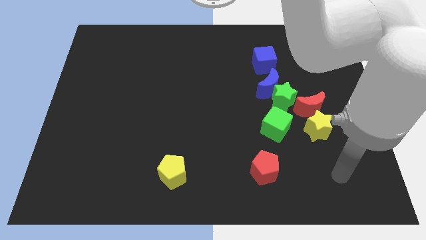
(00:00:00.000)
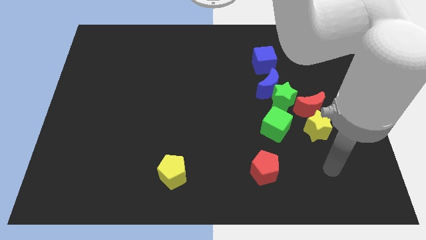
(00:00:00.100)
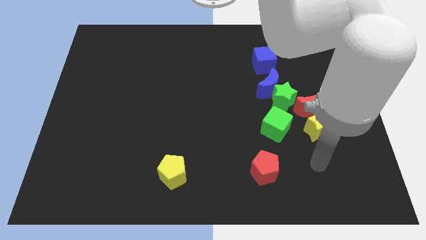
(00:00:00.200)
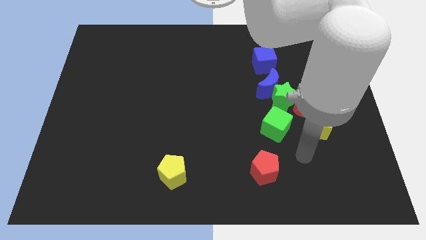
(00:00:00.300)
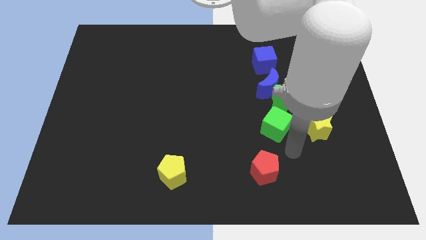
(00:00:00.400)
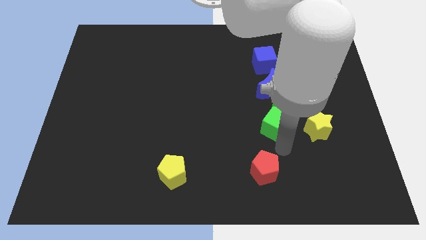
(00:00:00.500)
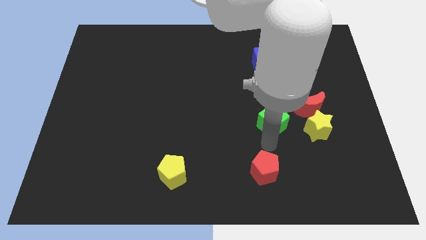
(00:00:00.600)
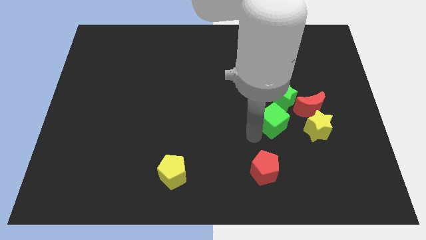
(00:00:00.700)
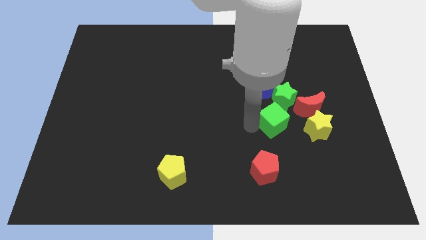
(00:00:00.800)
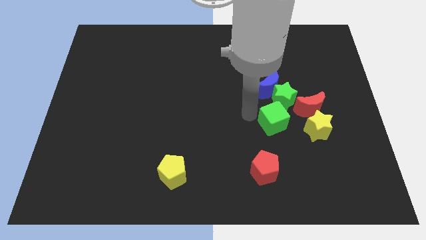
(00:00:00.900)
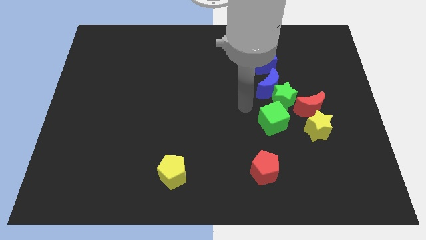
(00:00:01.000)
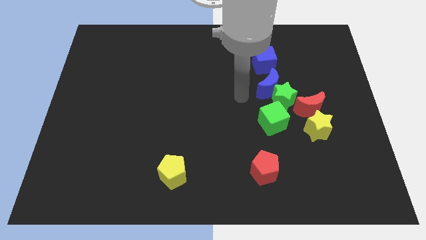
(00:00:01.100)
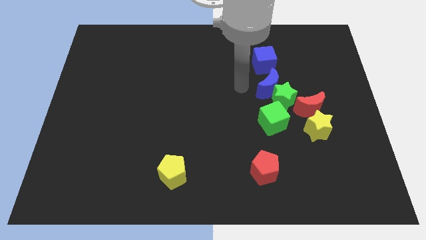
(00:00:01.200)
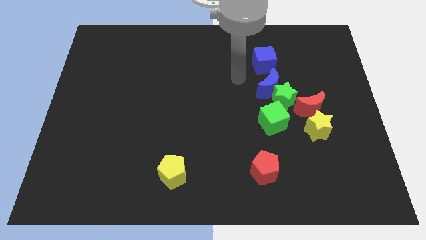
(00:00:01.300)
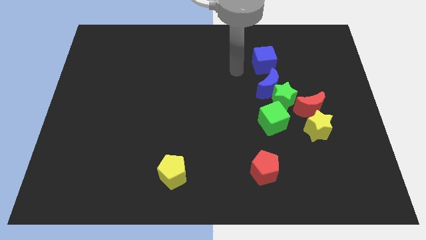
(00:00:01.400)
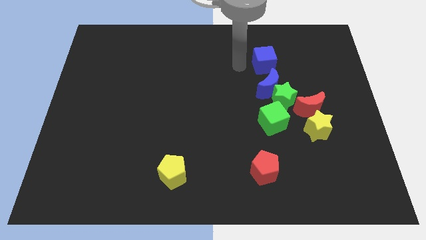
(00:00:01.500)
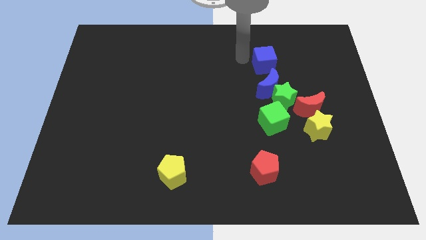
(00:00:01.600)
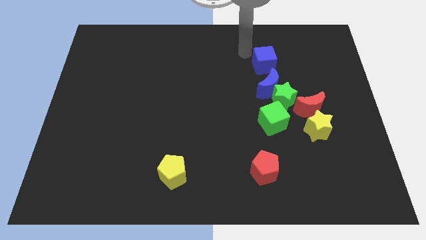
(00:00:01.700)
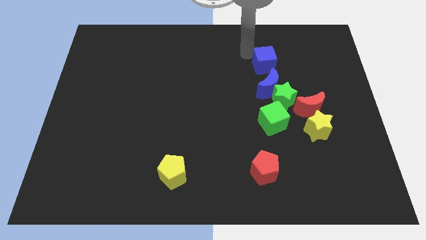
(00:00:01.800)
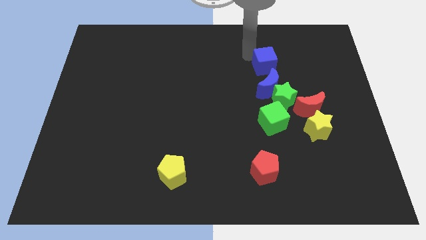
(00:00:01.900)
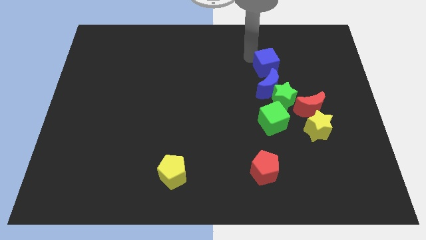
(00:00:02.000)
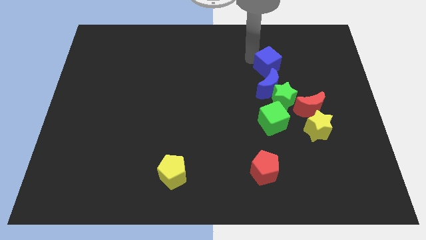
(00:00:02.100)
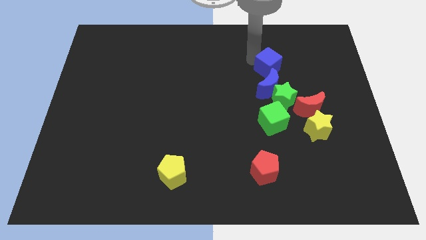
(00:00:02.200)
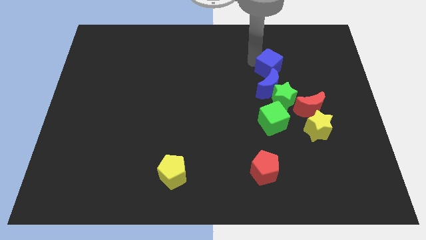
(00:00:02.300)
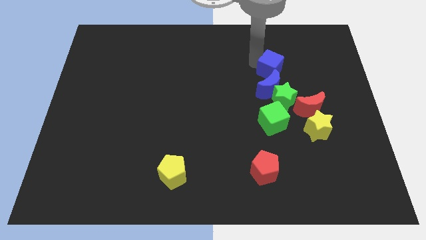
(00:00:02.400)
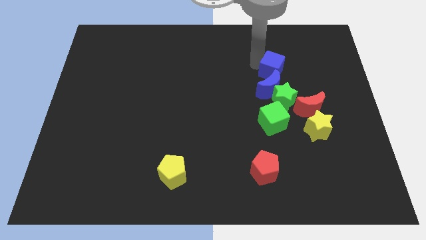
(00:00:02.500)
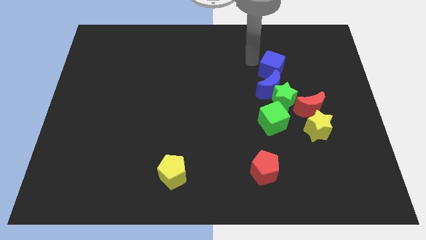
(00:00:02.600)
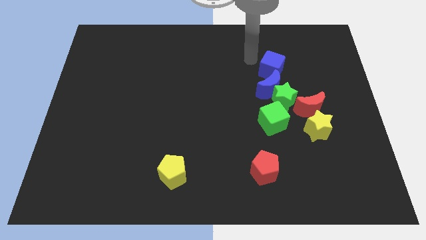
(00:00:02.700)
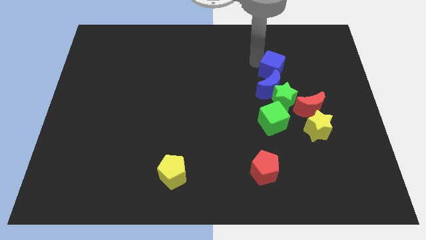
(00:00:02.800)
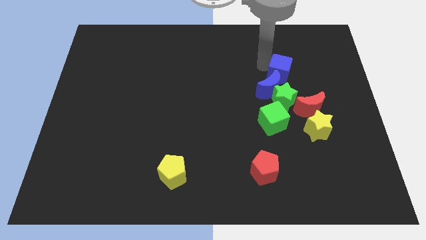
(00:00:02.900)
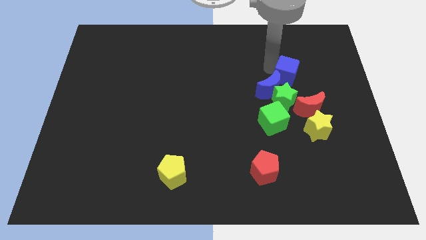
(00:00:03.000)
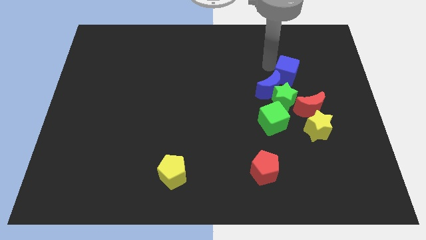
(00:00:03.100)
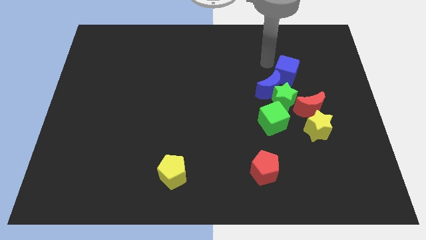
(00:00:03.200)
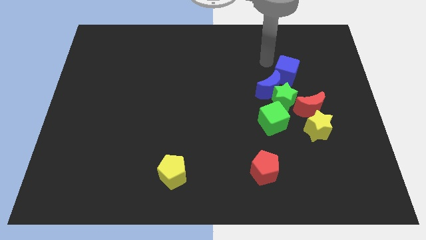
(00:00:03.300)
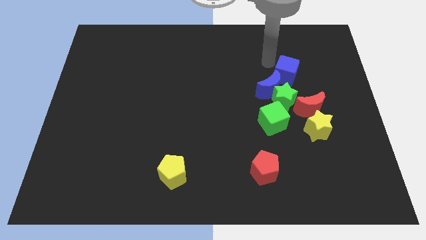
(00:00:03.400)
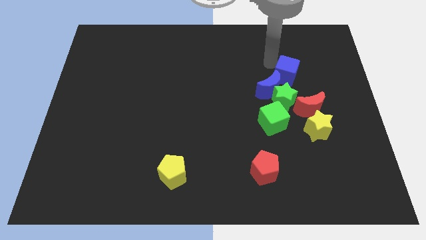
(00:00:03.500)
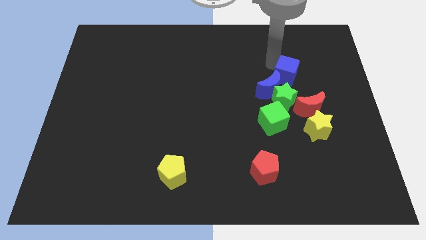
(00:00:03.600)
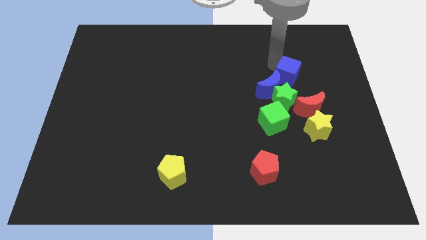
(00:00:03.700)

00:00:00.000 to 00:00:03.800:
slightly slide the blue cube diagonally down and to the right

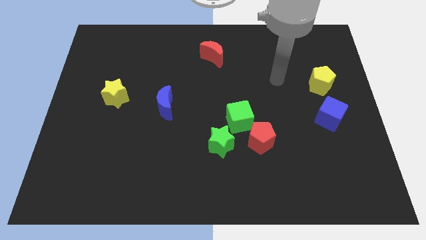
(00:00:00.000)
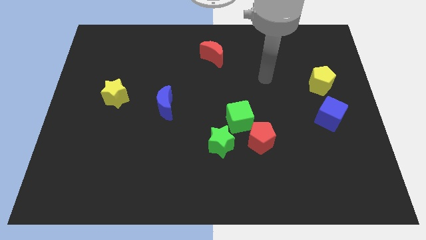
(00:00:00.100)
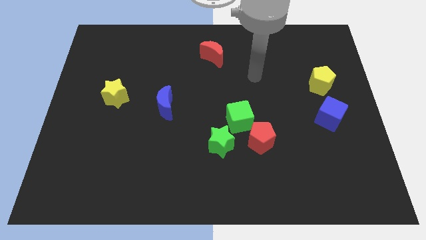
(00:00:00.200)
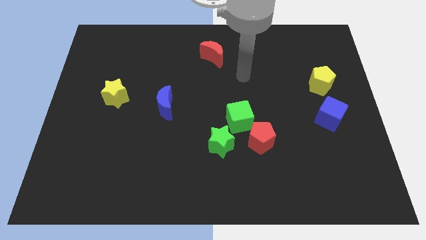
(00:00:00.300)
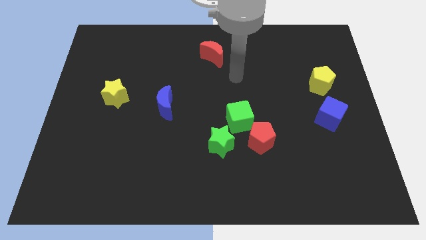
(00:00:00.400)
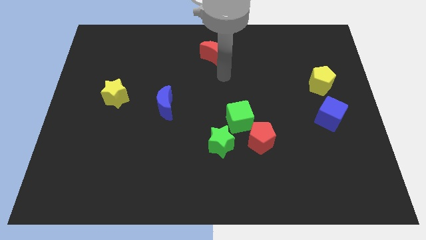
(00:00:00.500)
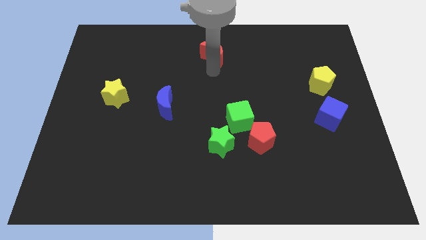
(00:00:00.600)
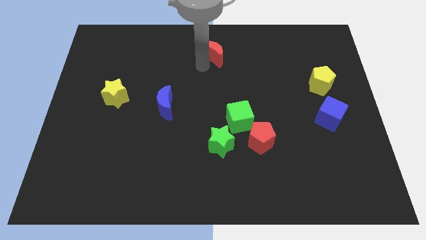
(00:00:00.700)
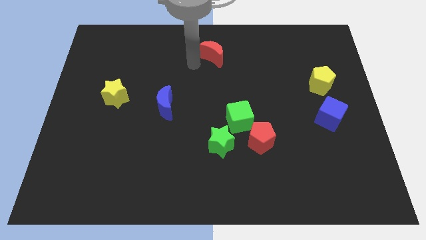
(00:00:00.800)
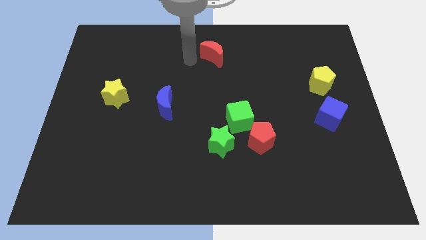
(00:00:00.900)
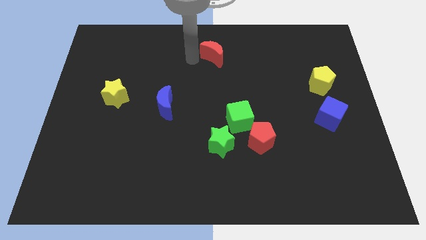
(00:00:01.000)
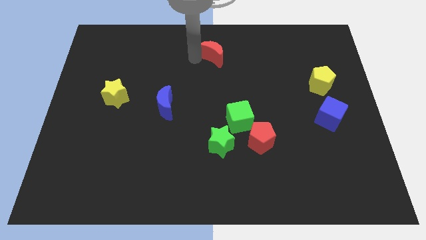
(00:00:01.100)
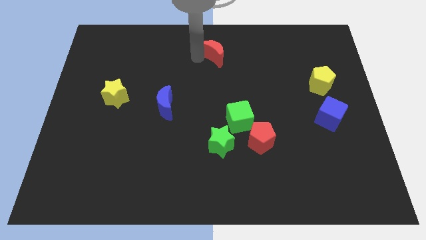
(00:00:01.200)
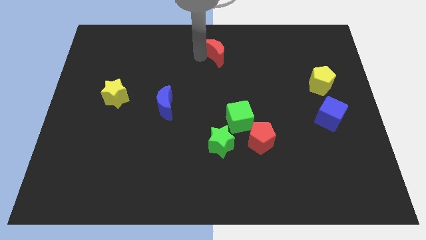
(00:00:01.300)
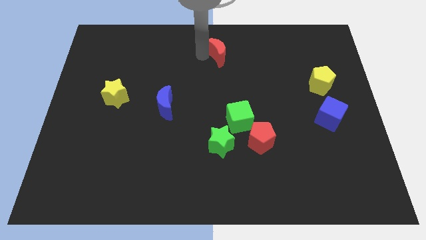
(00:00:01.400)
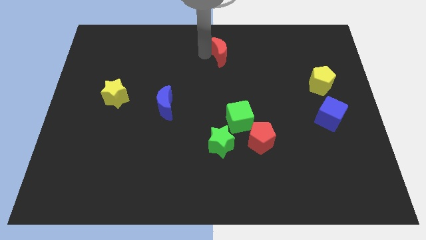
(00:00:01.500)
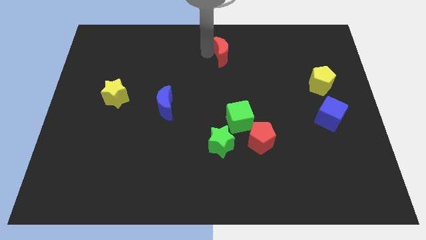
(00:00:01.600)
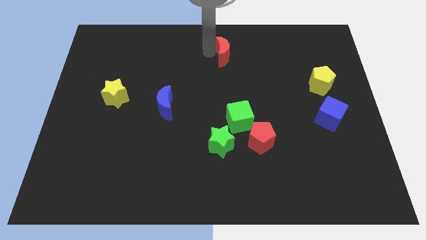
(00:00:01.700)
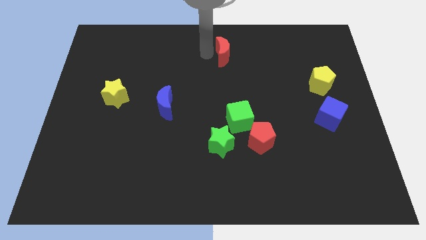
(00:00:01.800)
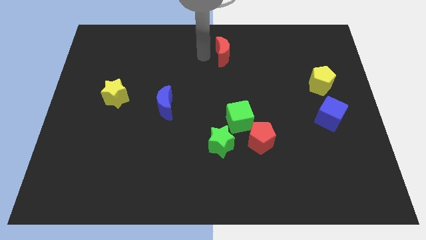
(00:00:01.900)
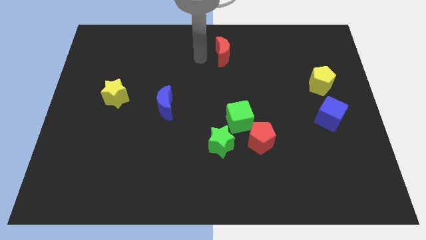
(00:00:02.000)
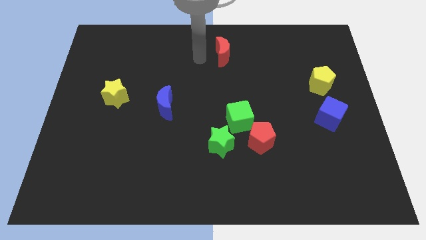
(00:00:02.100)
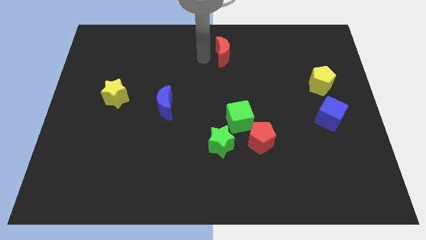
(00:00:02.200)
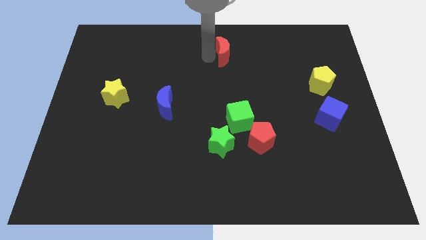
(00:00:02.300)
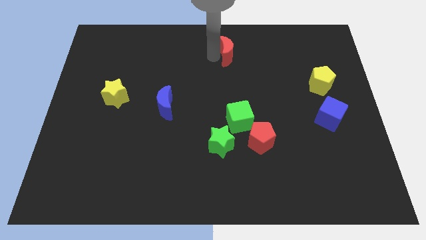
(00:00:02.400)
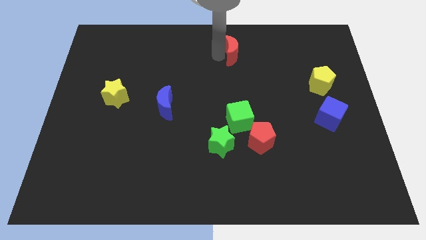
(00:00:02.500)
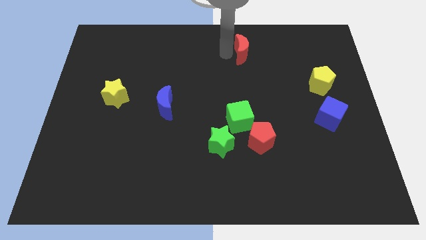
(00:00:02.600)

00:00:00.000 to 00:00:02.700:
slide the red moon slightly right

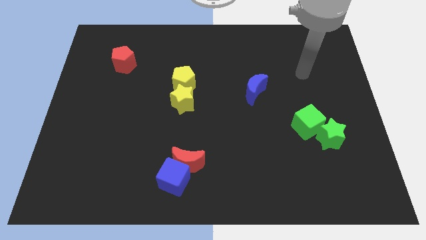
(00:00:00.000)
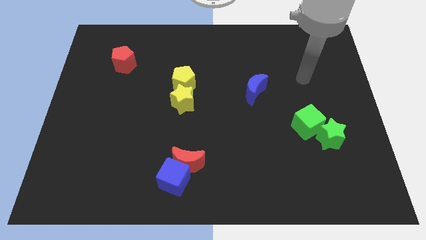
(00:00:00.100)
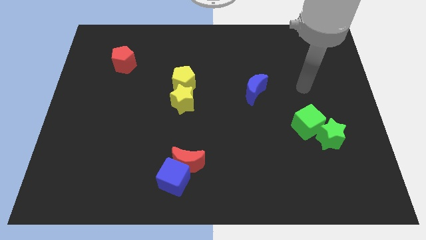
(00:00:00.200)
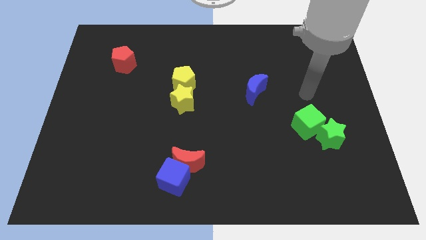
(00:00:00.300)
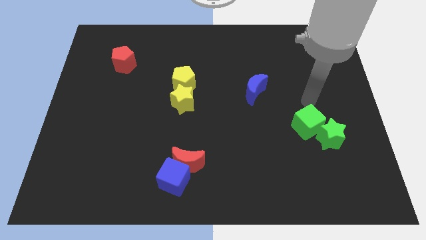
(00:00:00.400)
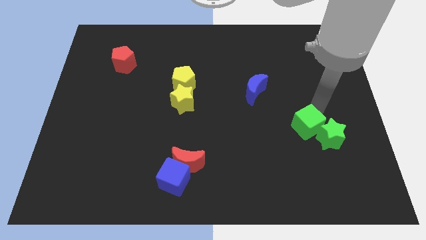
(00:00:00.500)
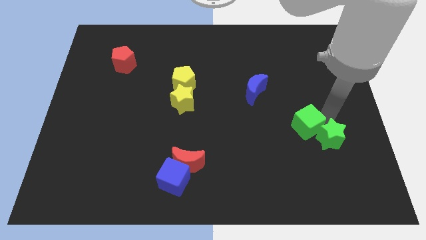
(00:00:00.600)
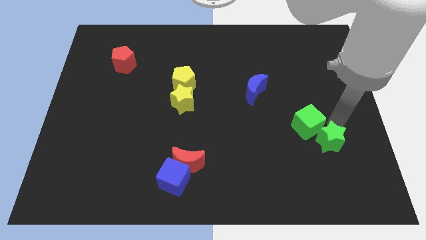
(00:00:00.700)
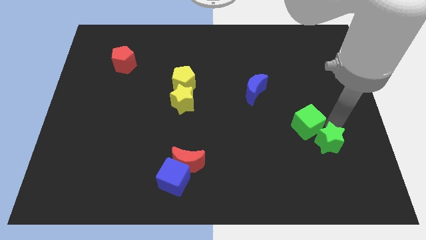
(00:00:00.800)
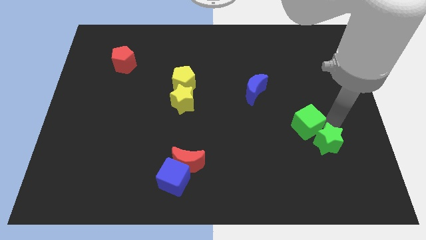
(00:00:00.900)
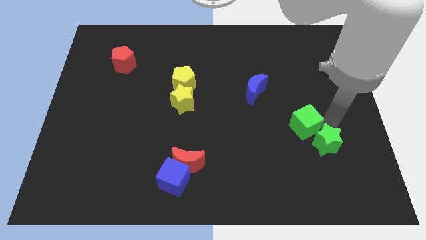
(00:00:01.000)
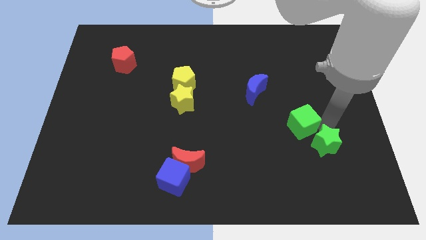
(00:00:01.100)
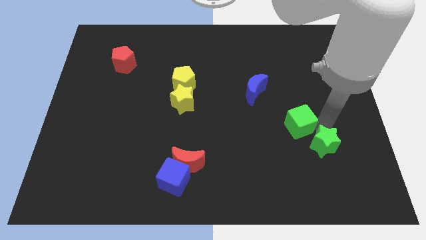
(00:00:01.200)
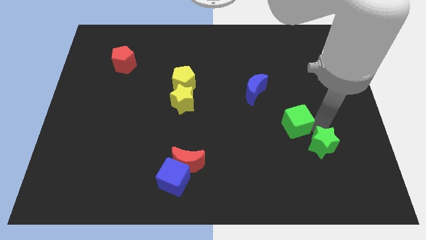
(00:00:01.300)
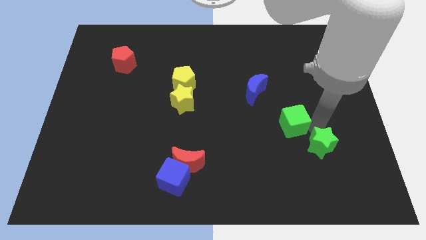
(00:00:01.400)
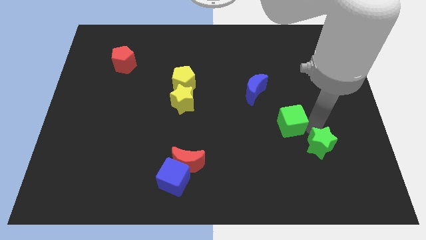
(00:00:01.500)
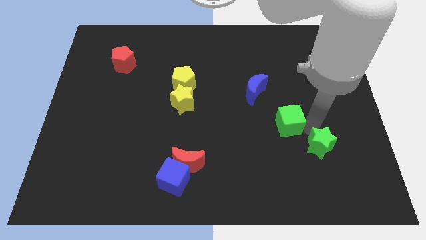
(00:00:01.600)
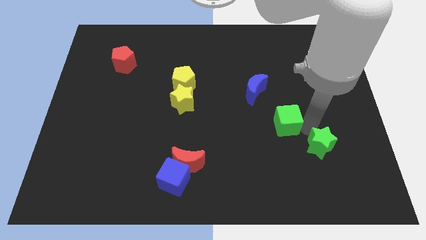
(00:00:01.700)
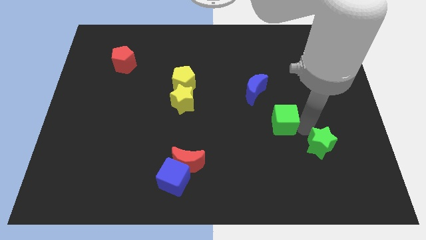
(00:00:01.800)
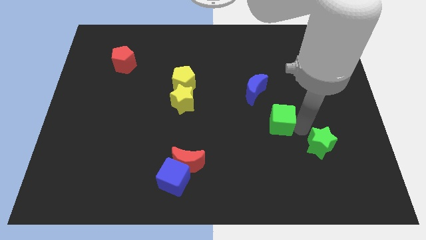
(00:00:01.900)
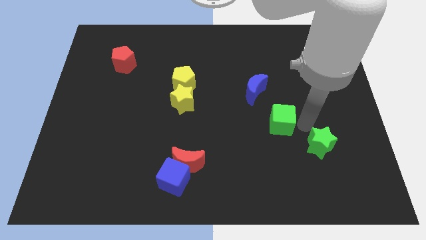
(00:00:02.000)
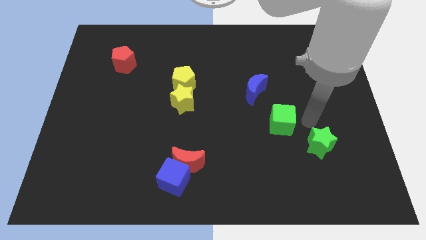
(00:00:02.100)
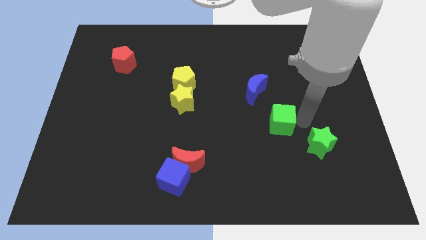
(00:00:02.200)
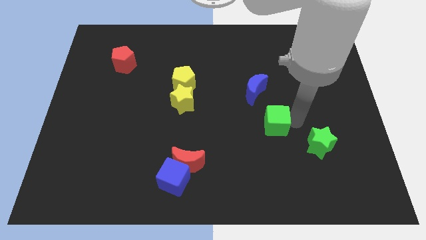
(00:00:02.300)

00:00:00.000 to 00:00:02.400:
move the green cube to the left a bit
